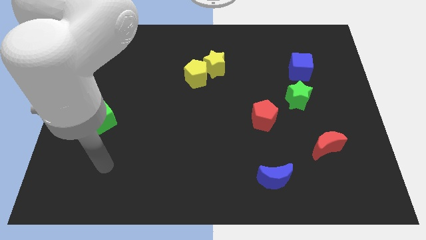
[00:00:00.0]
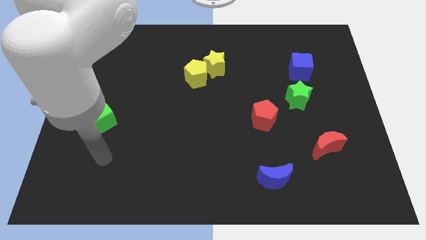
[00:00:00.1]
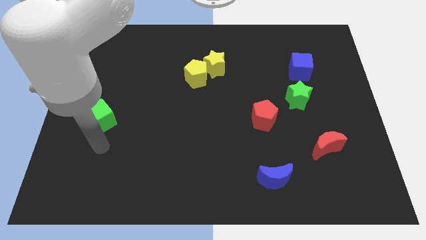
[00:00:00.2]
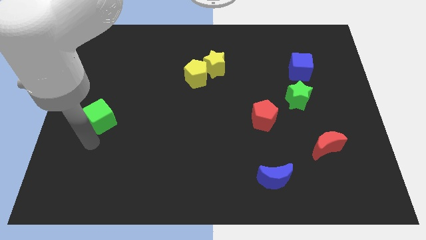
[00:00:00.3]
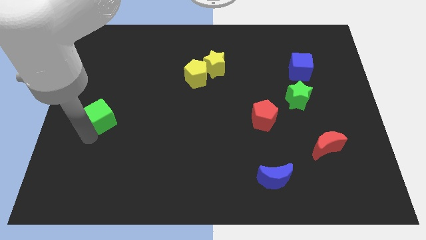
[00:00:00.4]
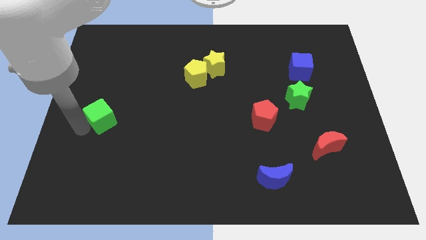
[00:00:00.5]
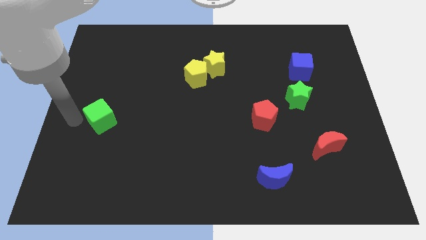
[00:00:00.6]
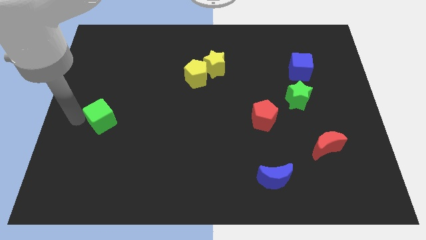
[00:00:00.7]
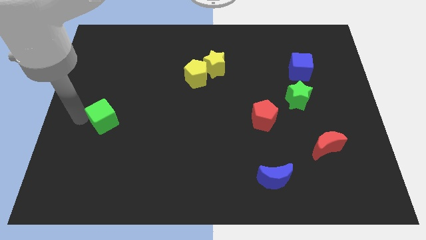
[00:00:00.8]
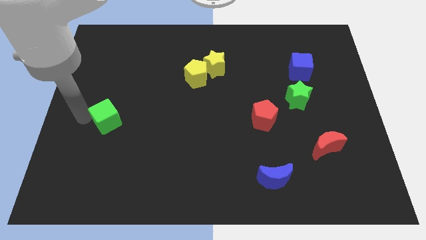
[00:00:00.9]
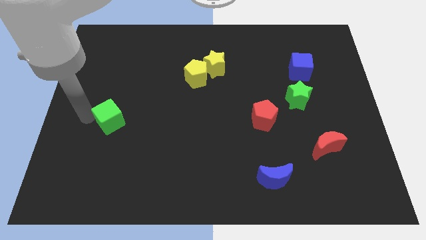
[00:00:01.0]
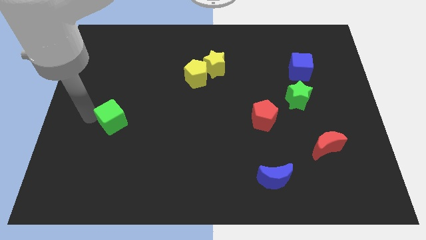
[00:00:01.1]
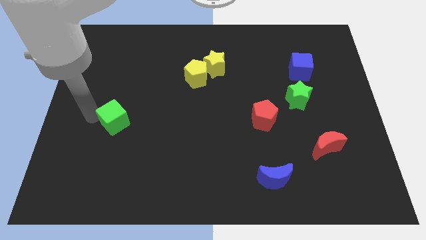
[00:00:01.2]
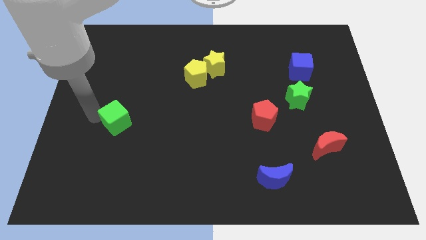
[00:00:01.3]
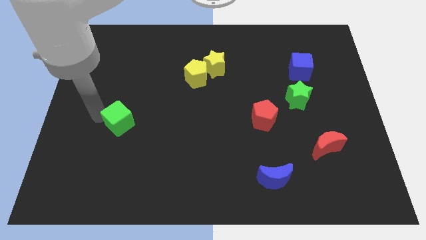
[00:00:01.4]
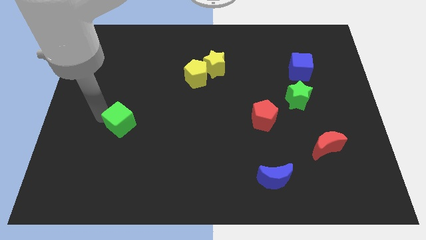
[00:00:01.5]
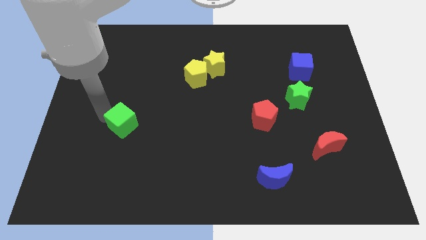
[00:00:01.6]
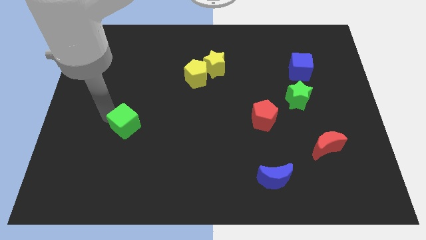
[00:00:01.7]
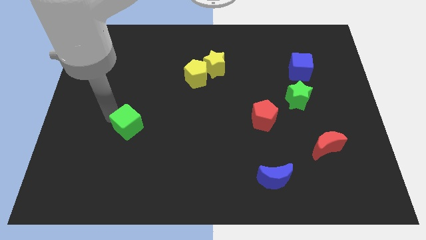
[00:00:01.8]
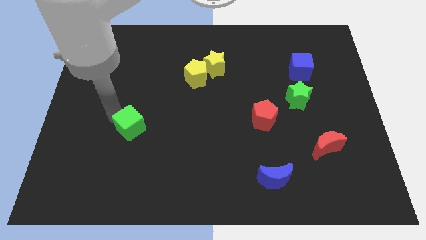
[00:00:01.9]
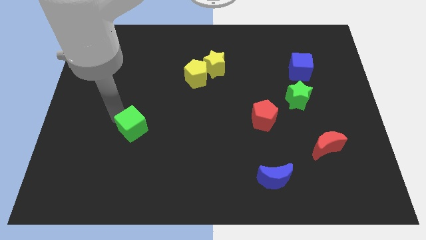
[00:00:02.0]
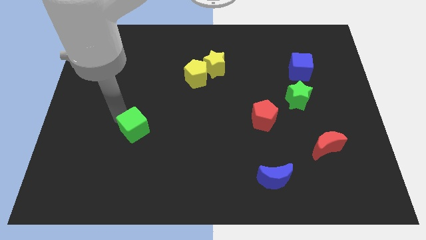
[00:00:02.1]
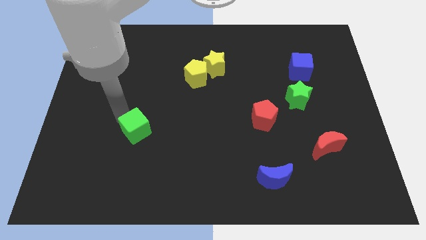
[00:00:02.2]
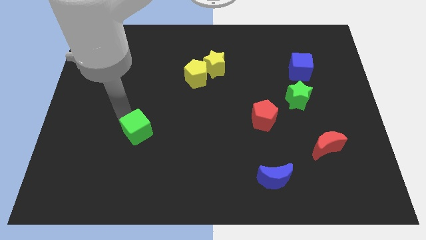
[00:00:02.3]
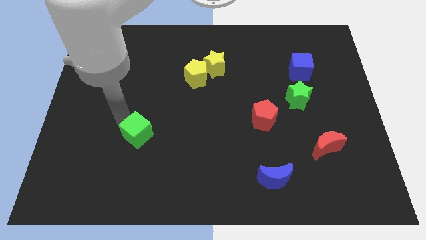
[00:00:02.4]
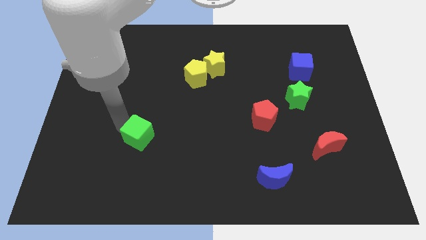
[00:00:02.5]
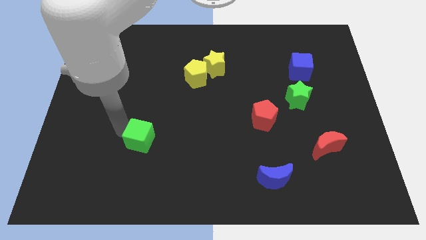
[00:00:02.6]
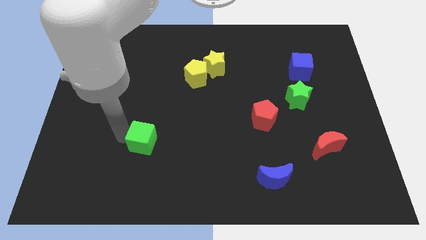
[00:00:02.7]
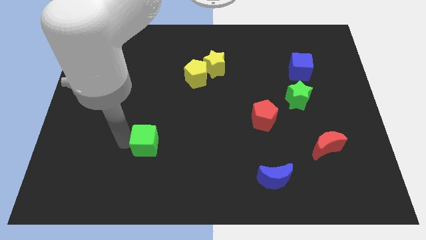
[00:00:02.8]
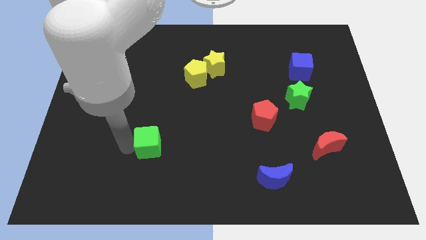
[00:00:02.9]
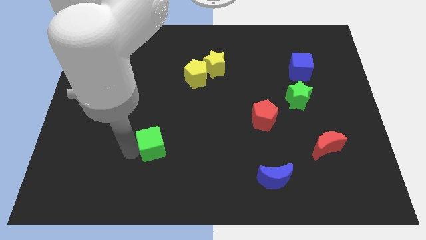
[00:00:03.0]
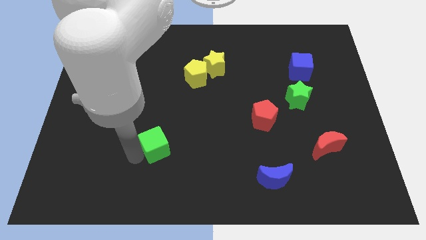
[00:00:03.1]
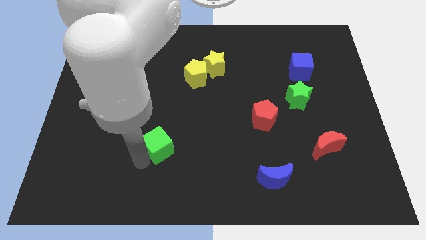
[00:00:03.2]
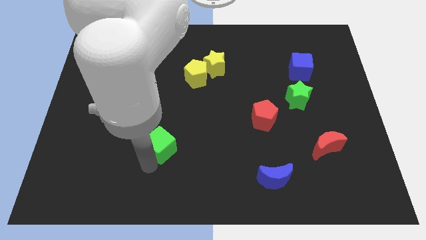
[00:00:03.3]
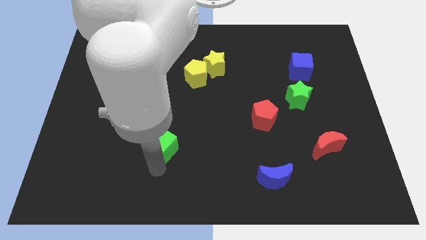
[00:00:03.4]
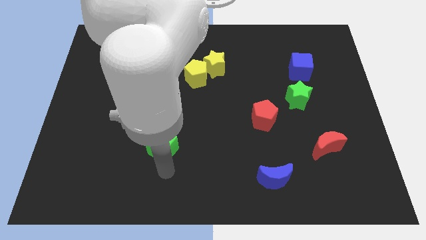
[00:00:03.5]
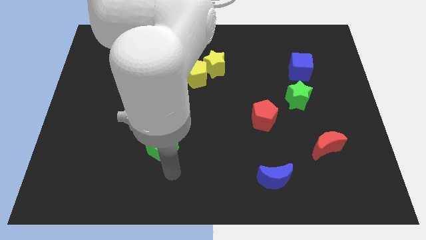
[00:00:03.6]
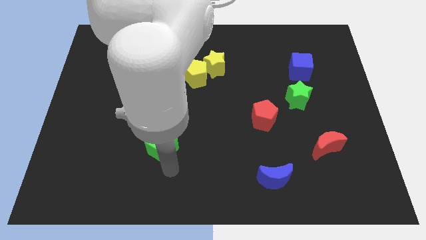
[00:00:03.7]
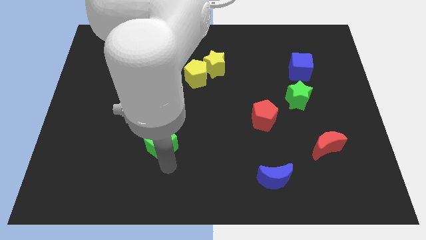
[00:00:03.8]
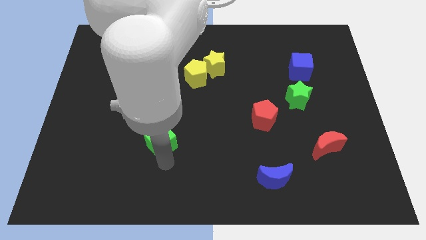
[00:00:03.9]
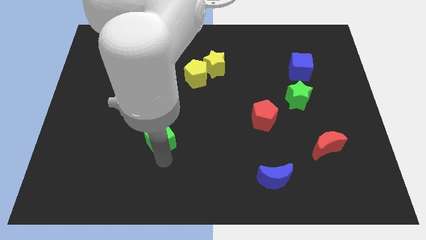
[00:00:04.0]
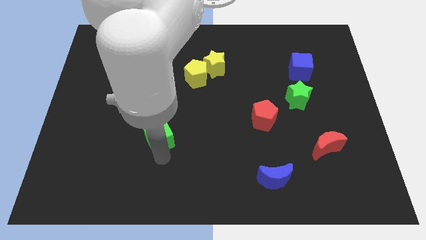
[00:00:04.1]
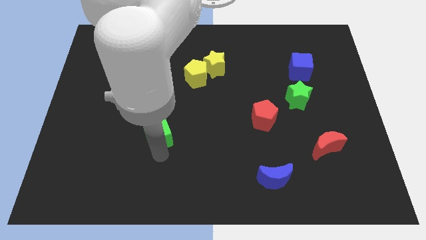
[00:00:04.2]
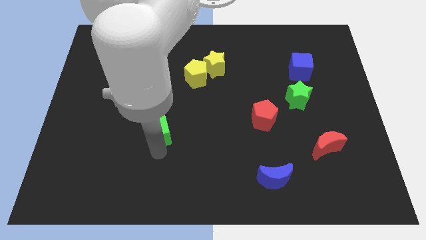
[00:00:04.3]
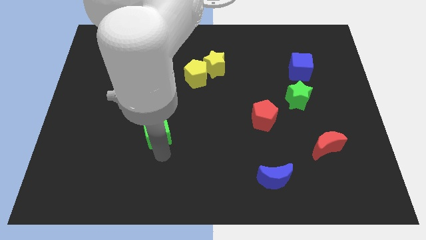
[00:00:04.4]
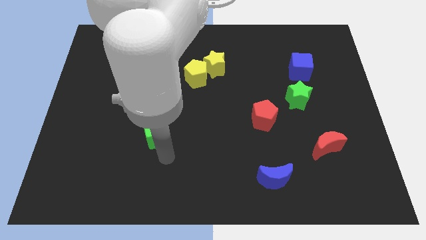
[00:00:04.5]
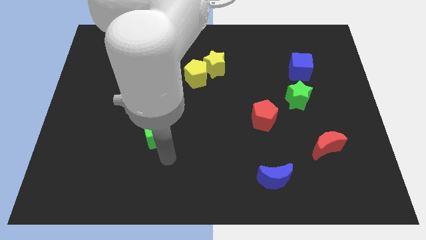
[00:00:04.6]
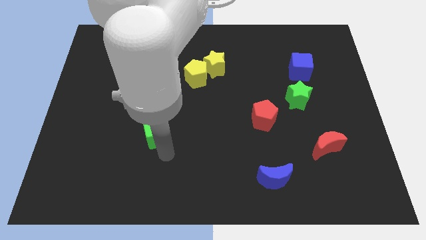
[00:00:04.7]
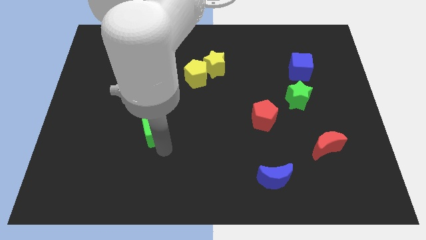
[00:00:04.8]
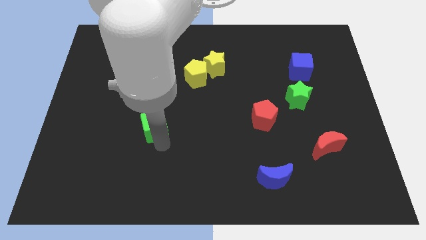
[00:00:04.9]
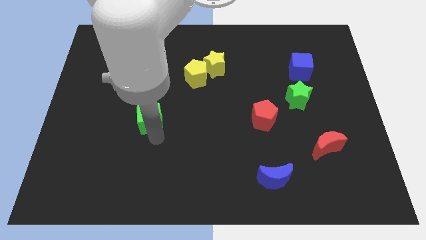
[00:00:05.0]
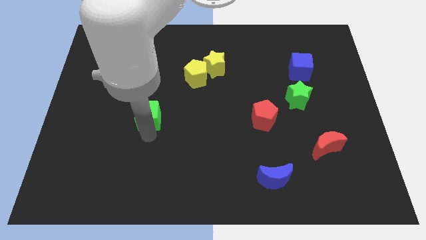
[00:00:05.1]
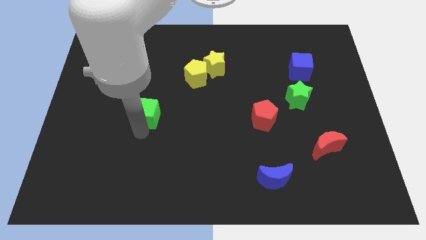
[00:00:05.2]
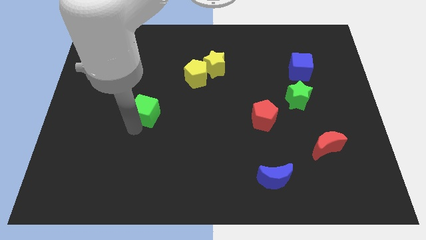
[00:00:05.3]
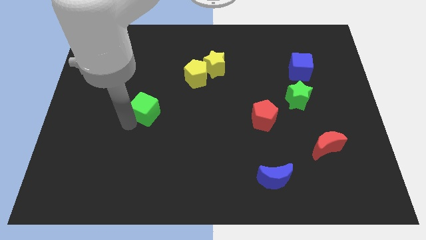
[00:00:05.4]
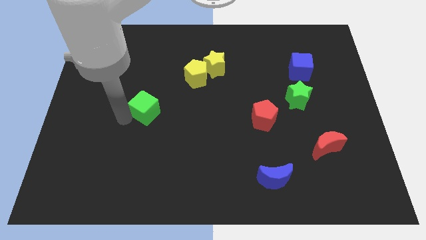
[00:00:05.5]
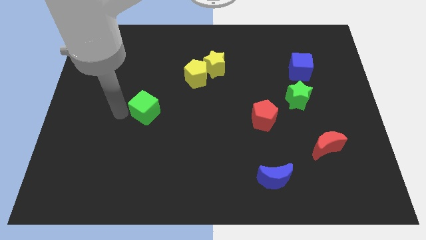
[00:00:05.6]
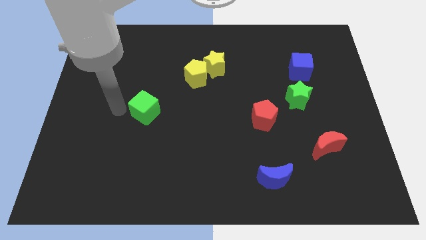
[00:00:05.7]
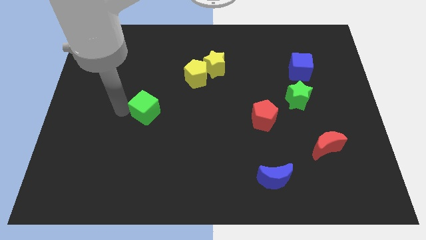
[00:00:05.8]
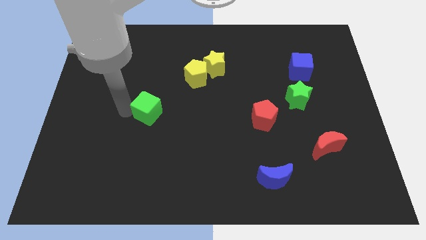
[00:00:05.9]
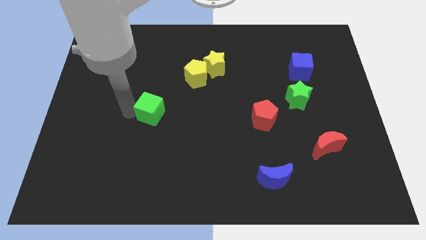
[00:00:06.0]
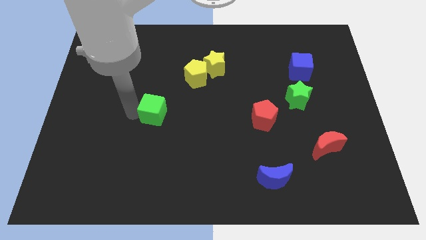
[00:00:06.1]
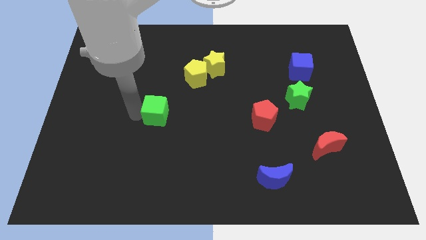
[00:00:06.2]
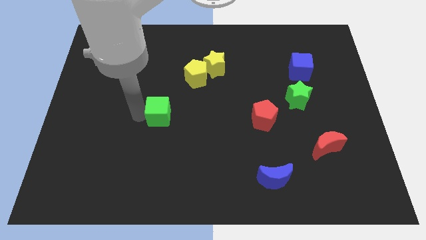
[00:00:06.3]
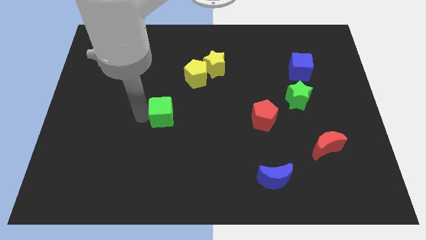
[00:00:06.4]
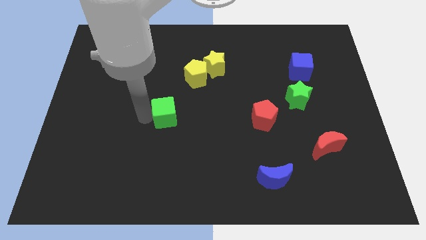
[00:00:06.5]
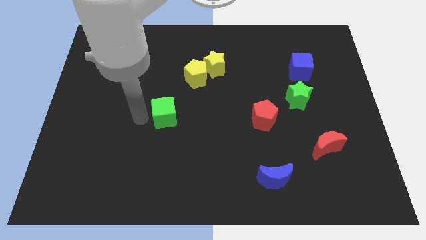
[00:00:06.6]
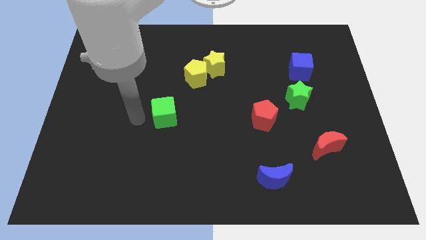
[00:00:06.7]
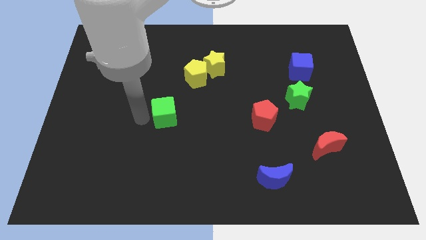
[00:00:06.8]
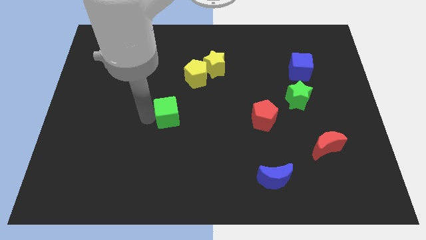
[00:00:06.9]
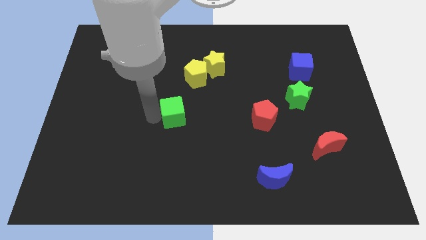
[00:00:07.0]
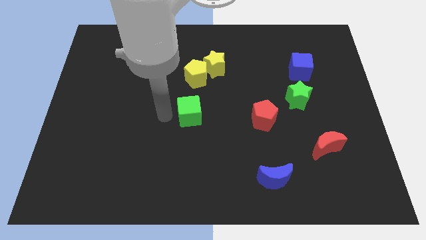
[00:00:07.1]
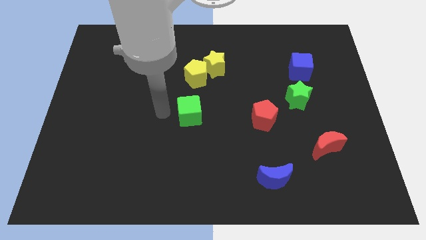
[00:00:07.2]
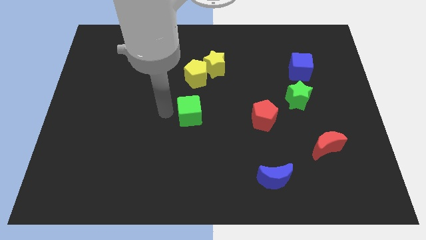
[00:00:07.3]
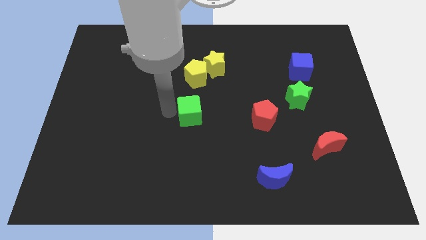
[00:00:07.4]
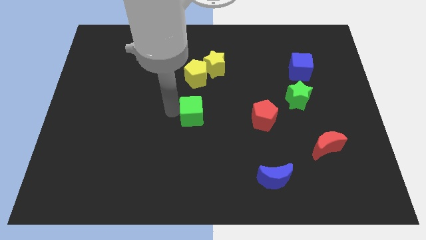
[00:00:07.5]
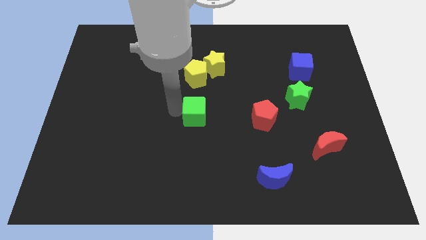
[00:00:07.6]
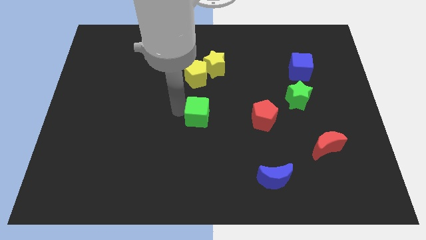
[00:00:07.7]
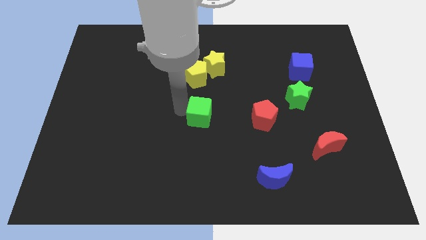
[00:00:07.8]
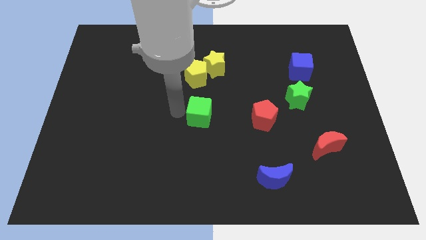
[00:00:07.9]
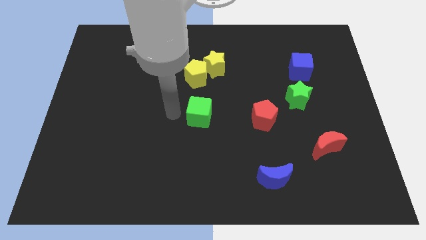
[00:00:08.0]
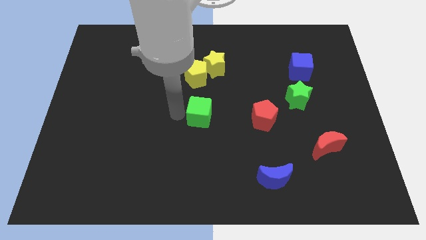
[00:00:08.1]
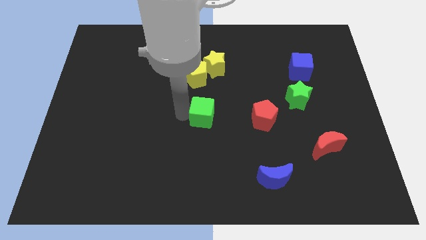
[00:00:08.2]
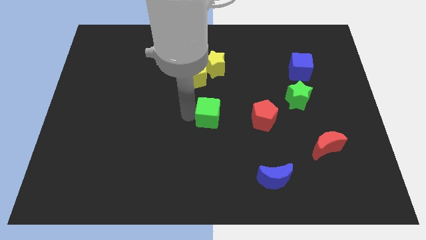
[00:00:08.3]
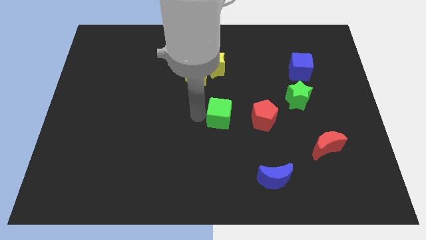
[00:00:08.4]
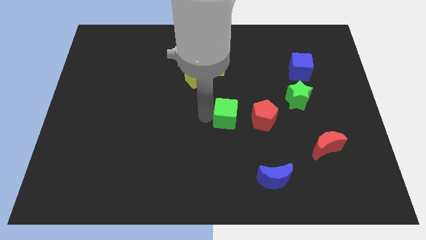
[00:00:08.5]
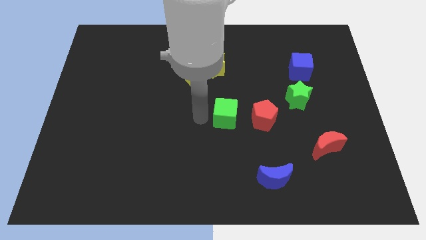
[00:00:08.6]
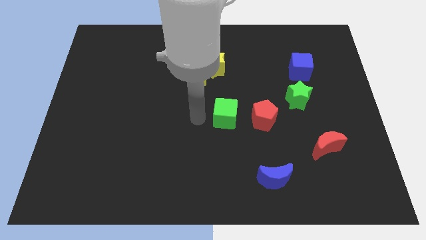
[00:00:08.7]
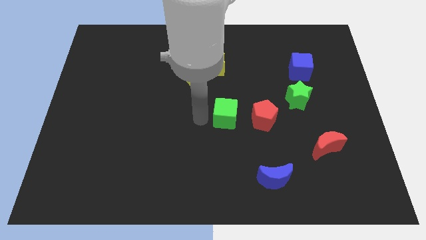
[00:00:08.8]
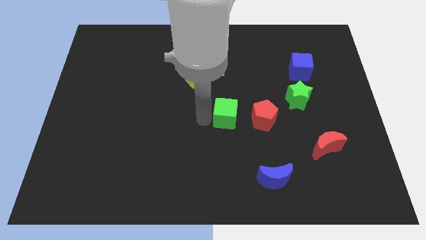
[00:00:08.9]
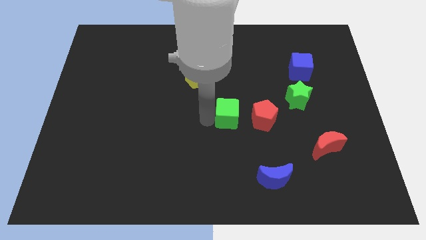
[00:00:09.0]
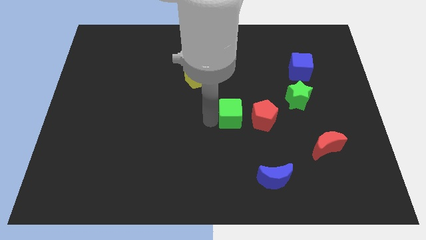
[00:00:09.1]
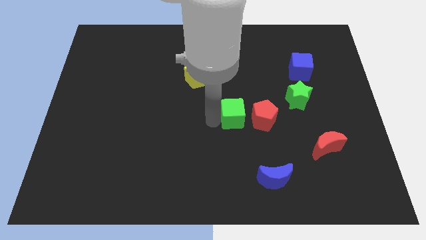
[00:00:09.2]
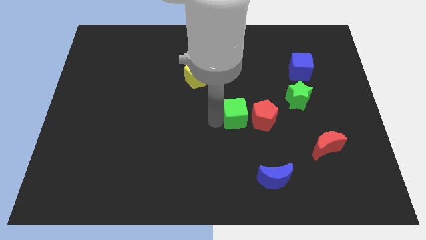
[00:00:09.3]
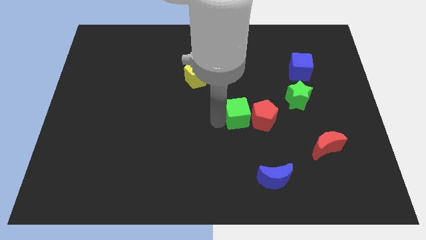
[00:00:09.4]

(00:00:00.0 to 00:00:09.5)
put the green cube to the red pentagon
